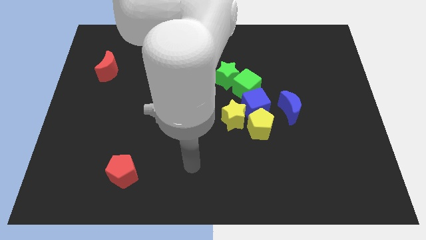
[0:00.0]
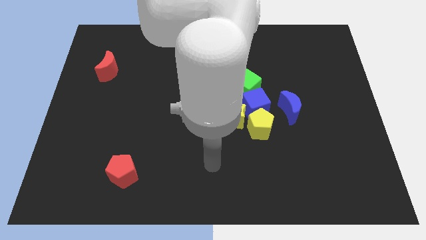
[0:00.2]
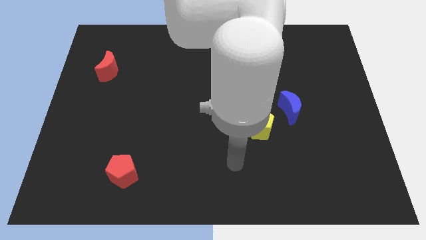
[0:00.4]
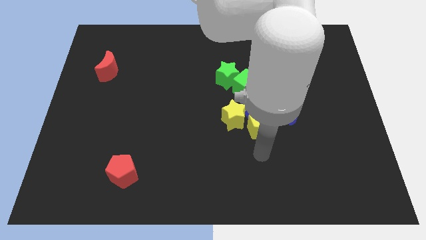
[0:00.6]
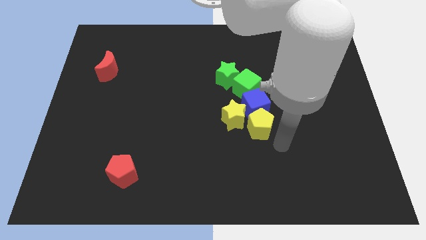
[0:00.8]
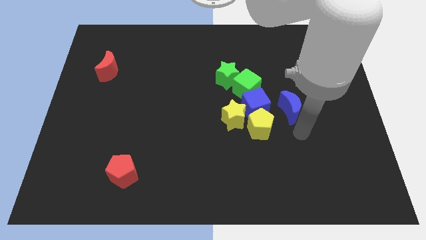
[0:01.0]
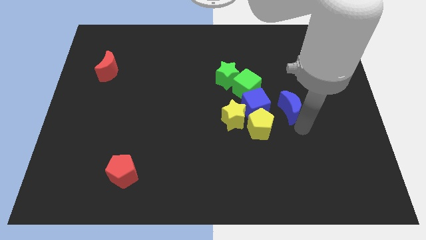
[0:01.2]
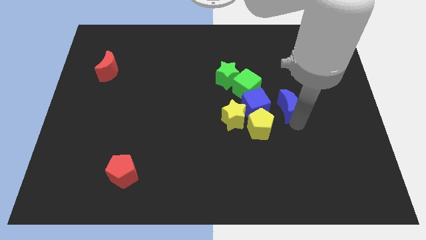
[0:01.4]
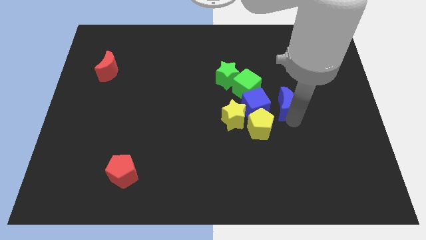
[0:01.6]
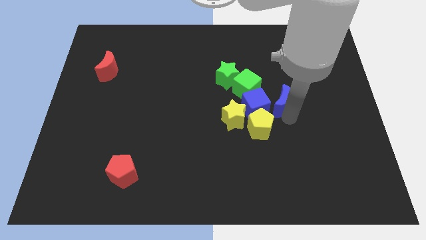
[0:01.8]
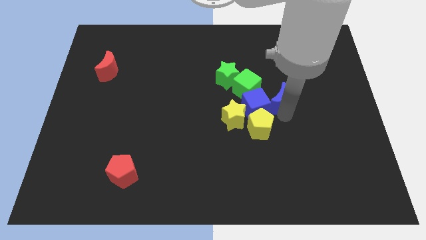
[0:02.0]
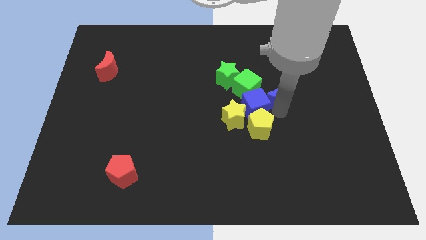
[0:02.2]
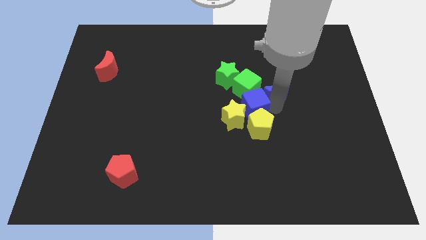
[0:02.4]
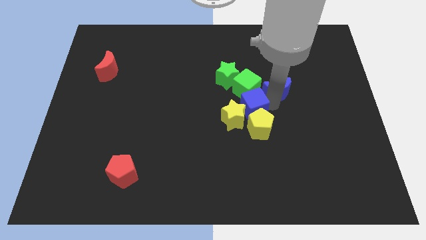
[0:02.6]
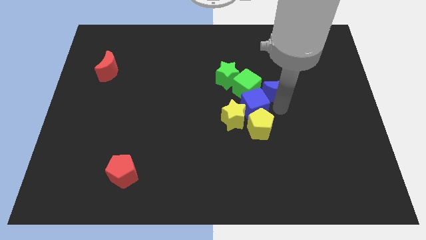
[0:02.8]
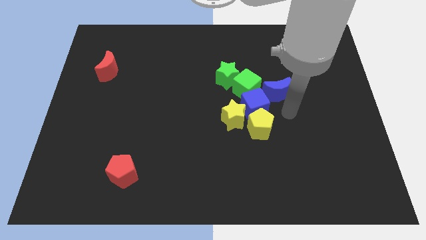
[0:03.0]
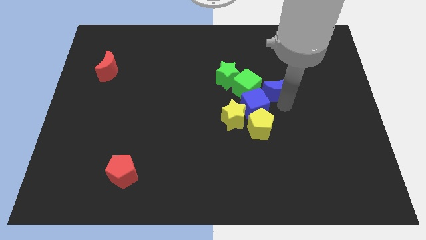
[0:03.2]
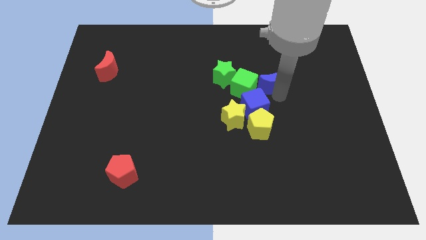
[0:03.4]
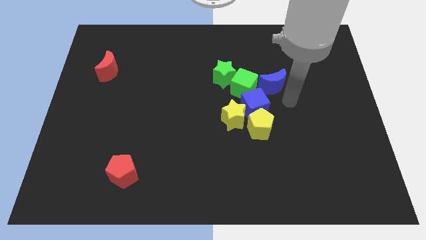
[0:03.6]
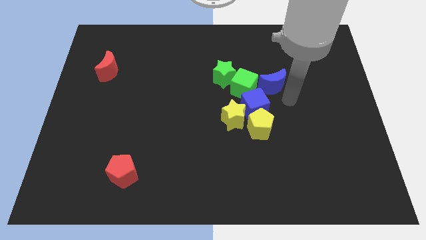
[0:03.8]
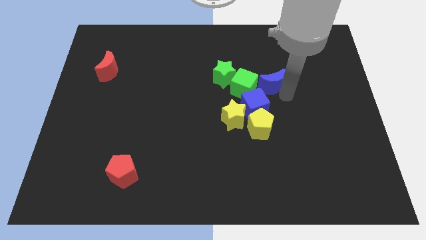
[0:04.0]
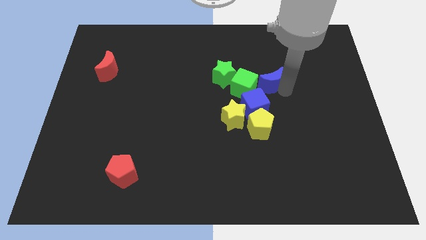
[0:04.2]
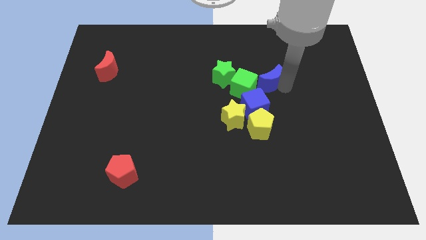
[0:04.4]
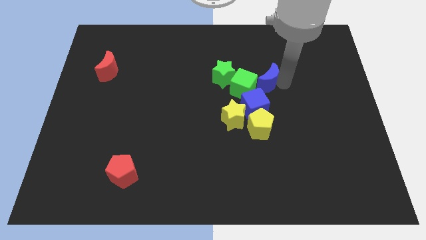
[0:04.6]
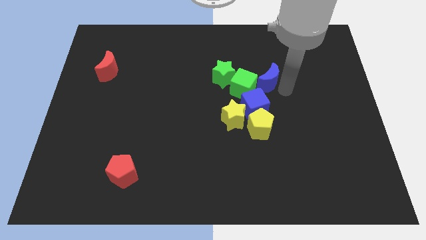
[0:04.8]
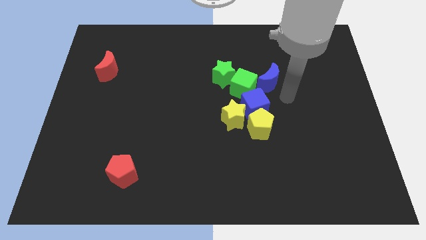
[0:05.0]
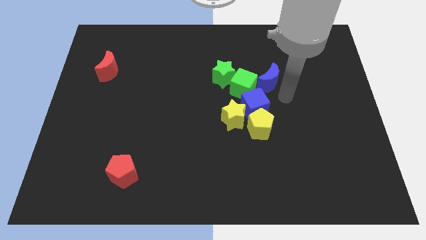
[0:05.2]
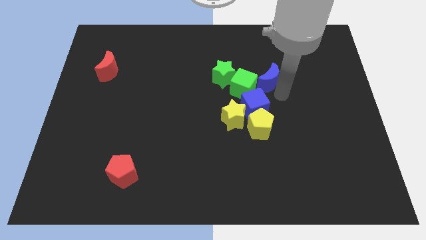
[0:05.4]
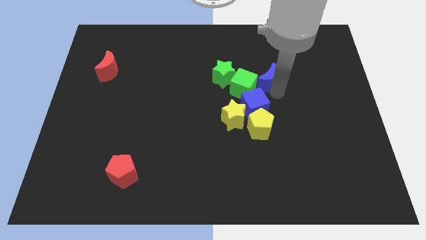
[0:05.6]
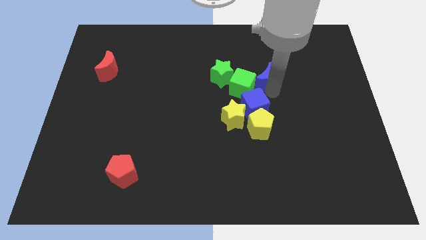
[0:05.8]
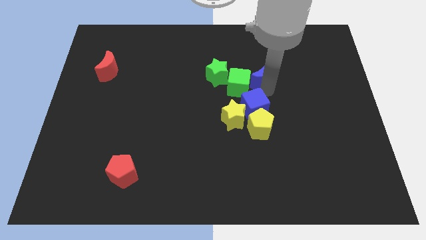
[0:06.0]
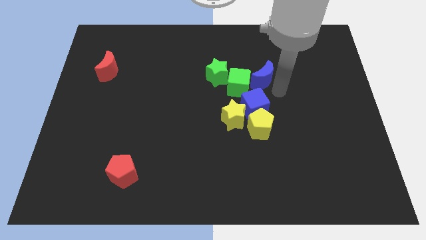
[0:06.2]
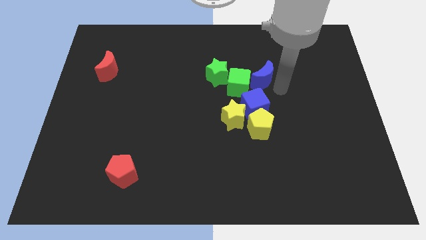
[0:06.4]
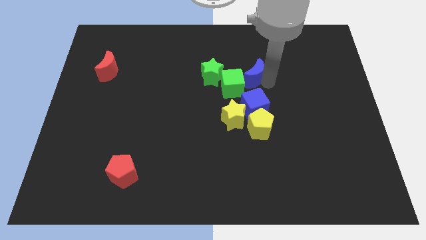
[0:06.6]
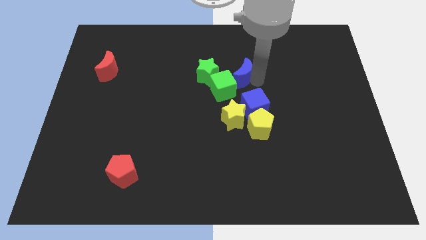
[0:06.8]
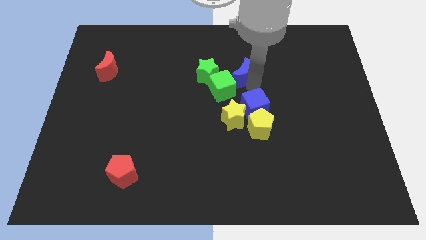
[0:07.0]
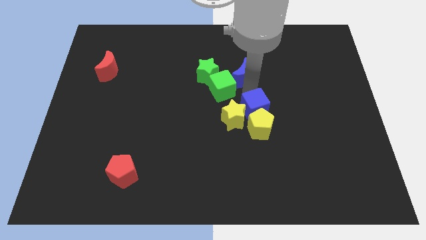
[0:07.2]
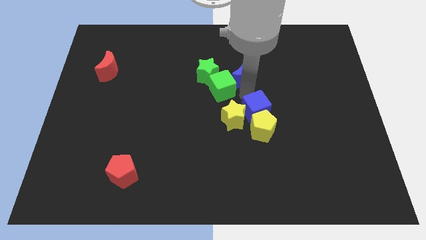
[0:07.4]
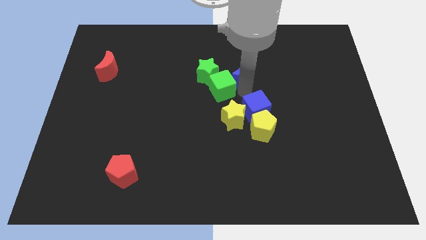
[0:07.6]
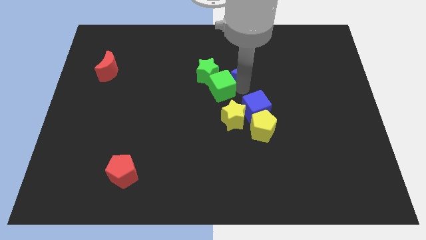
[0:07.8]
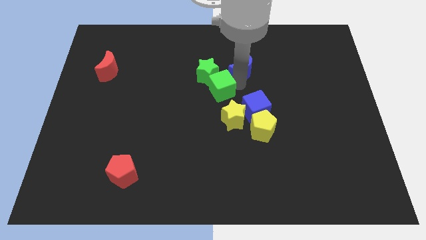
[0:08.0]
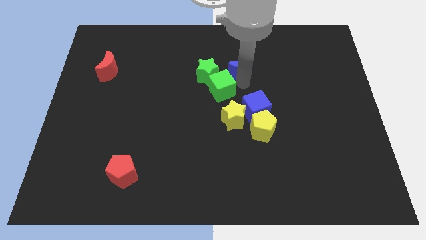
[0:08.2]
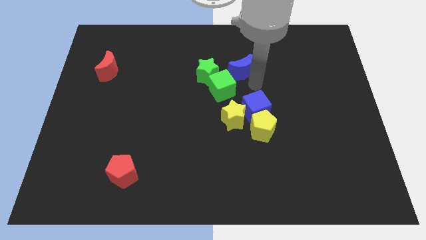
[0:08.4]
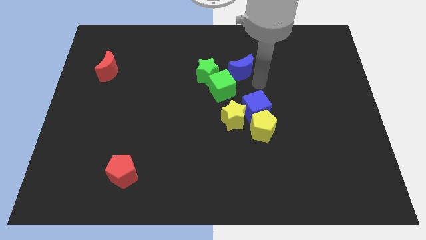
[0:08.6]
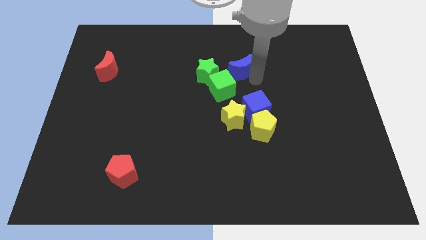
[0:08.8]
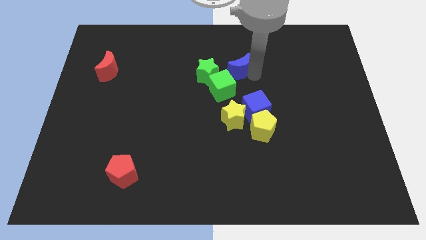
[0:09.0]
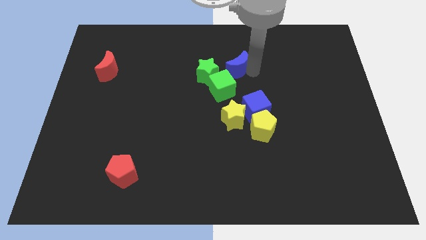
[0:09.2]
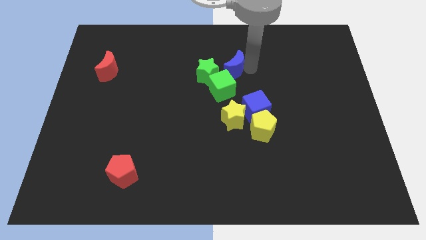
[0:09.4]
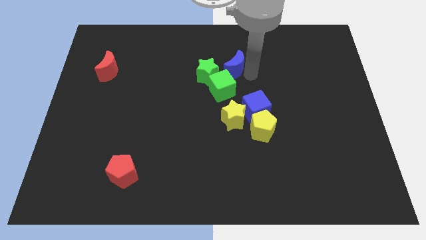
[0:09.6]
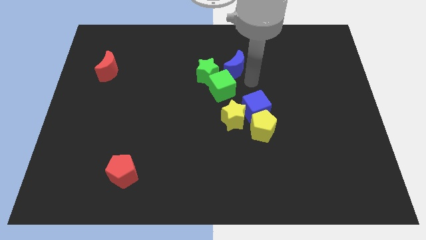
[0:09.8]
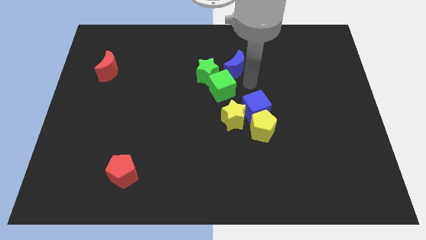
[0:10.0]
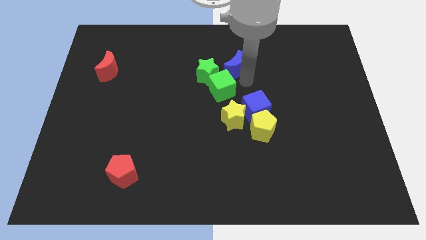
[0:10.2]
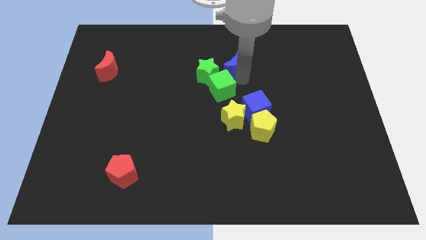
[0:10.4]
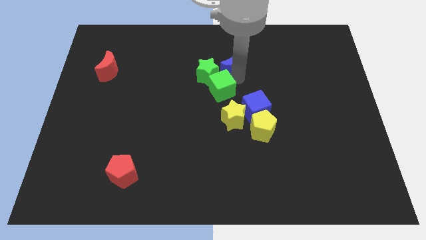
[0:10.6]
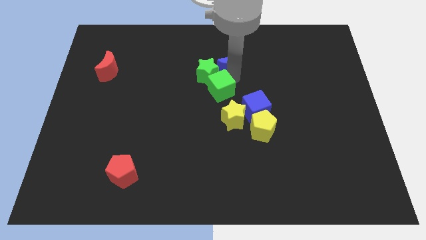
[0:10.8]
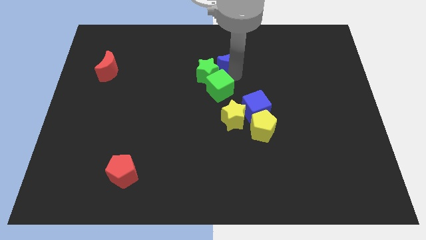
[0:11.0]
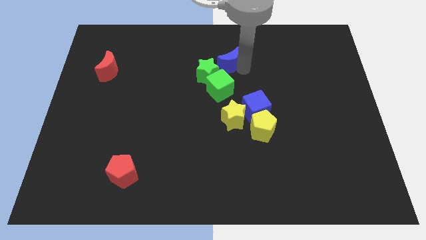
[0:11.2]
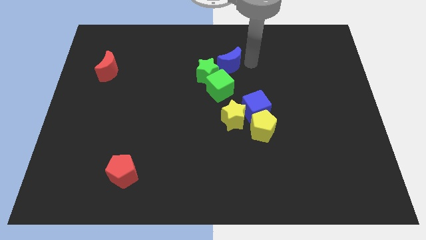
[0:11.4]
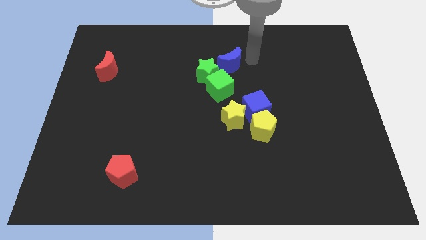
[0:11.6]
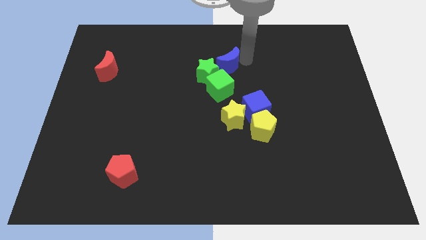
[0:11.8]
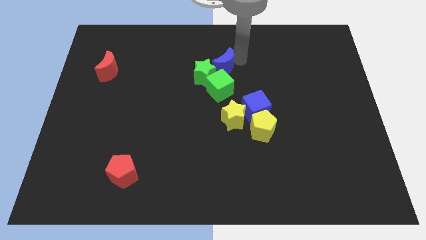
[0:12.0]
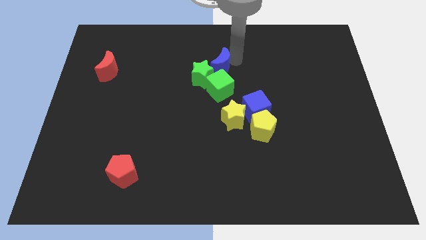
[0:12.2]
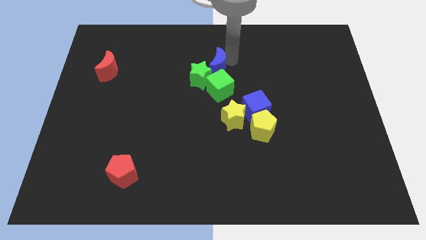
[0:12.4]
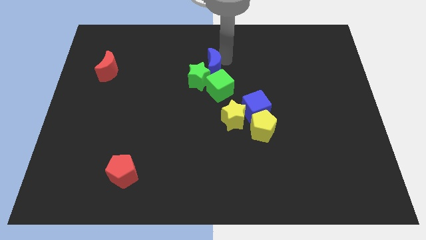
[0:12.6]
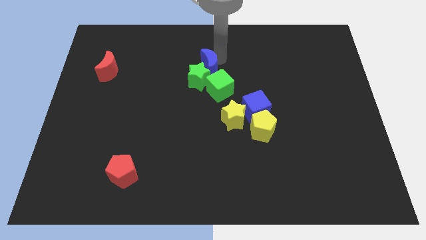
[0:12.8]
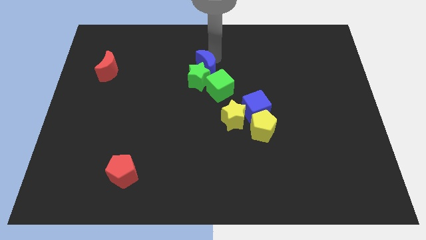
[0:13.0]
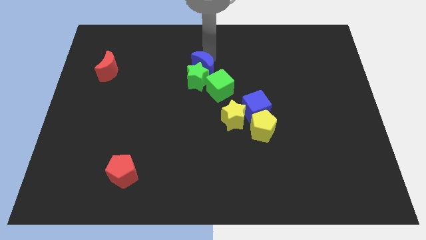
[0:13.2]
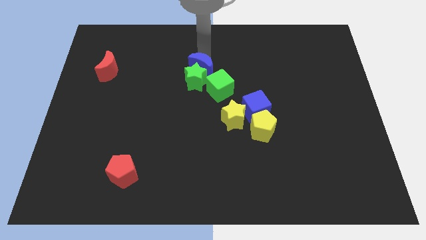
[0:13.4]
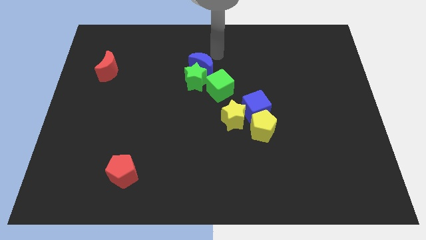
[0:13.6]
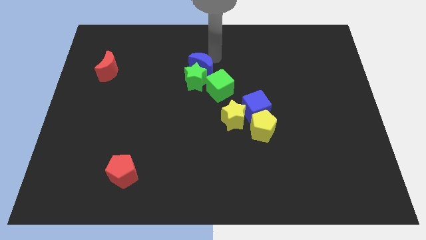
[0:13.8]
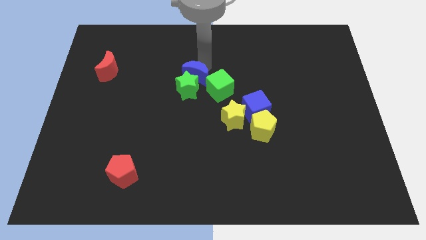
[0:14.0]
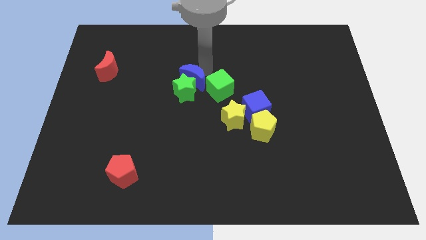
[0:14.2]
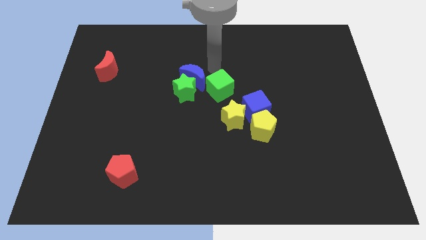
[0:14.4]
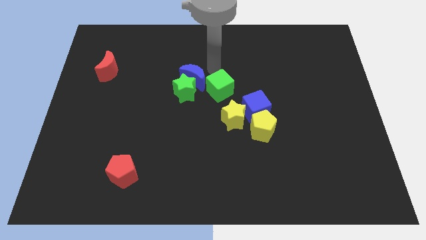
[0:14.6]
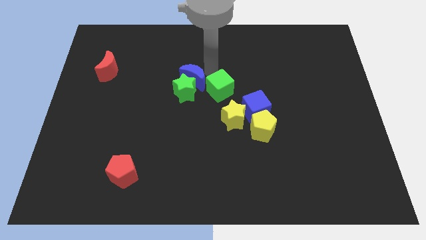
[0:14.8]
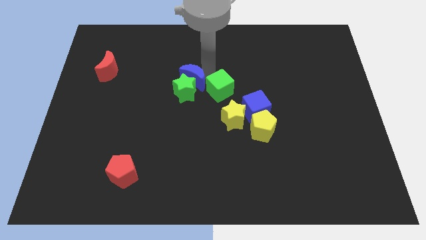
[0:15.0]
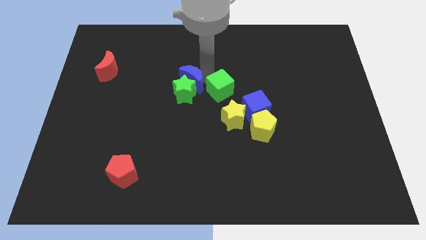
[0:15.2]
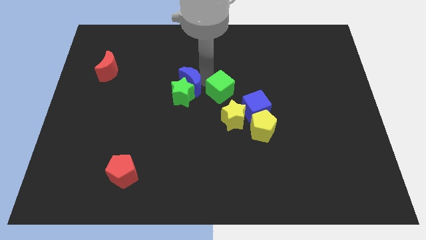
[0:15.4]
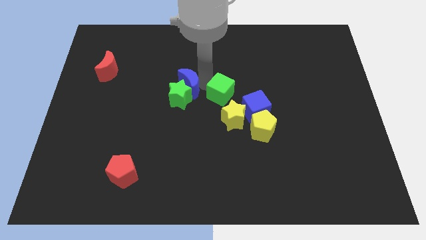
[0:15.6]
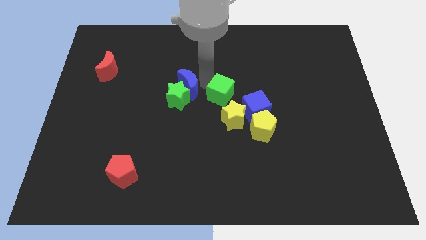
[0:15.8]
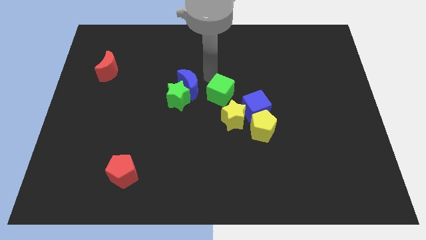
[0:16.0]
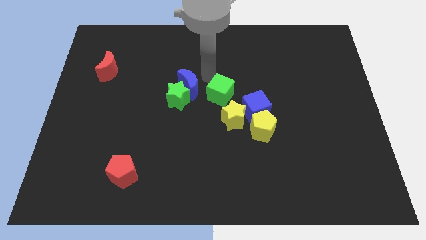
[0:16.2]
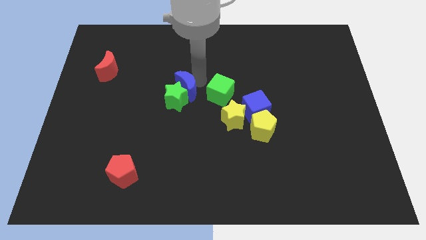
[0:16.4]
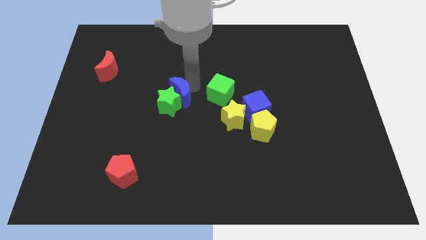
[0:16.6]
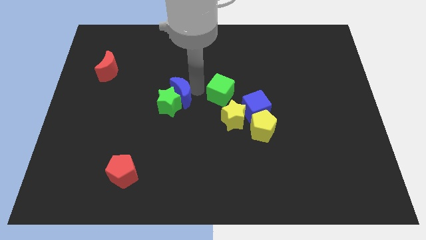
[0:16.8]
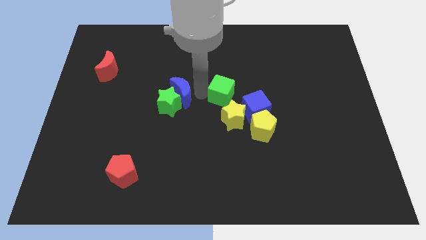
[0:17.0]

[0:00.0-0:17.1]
push the blue moon just left of the green cube
